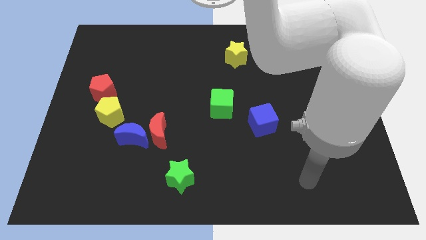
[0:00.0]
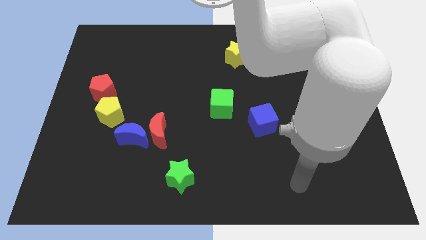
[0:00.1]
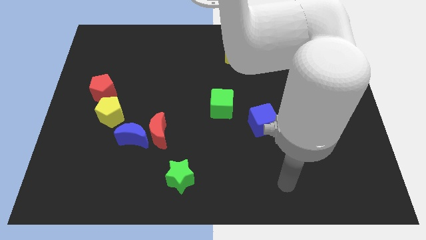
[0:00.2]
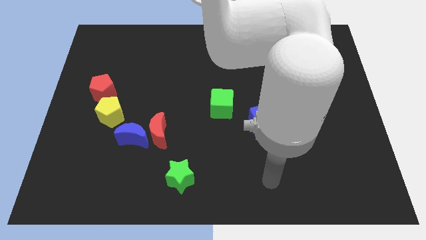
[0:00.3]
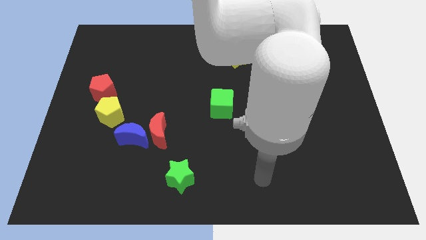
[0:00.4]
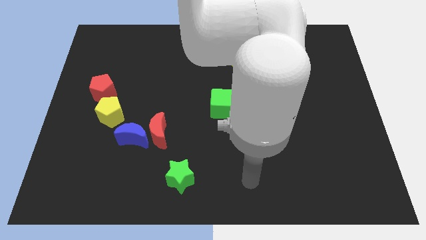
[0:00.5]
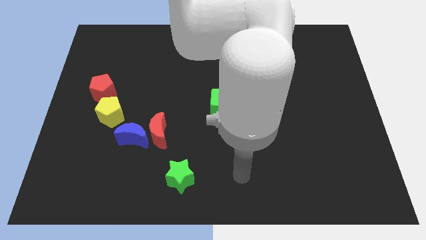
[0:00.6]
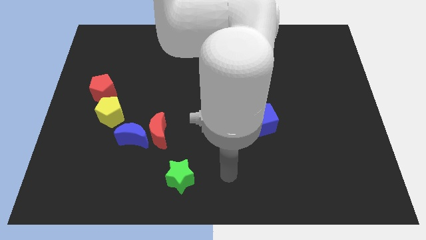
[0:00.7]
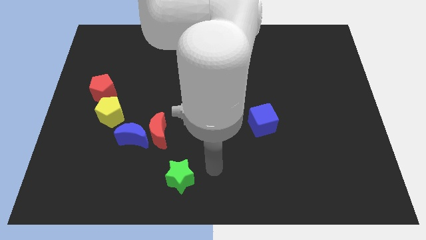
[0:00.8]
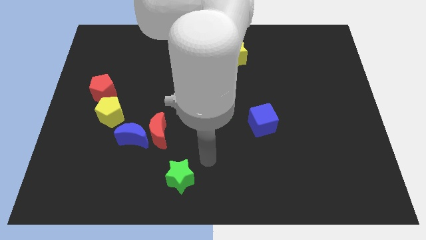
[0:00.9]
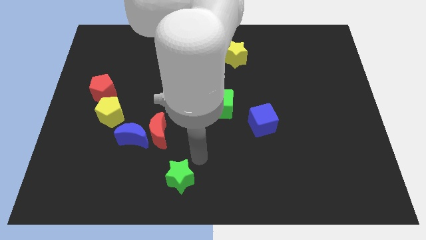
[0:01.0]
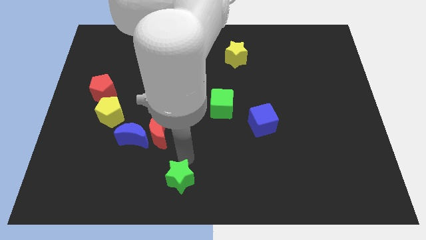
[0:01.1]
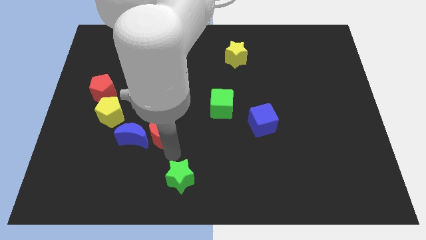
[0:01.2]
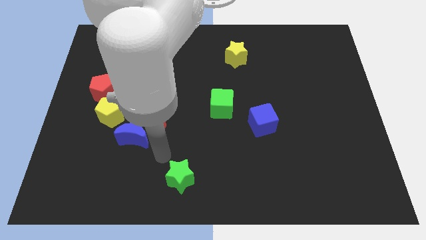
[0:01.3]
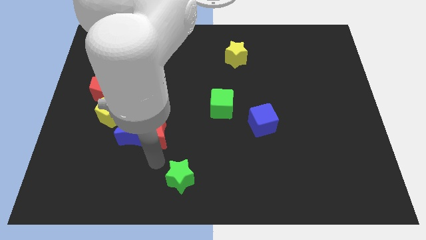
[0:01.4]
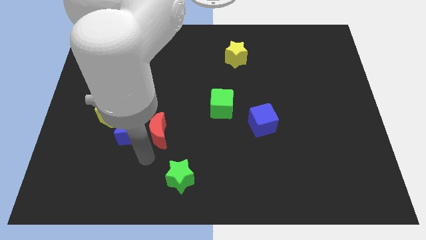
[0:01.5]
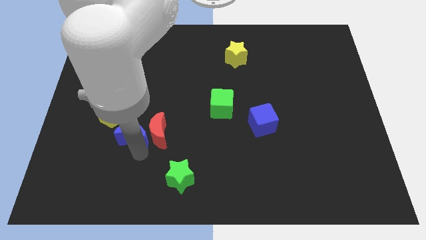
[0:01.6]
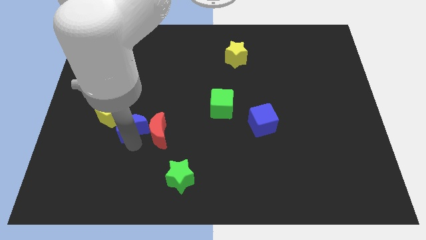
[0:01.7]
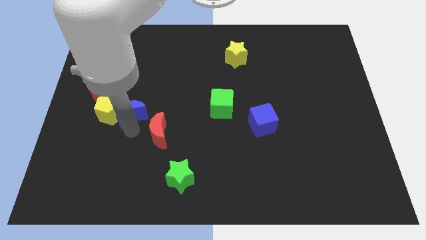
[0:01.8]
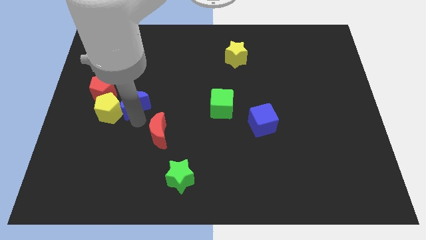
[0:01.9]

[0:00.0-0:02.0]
pull the red moon apart from the blue moon

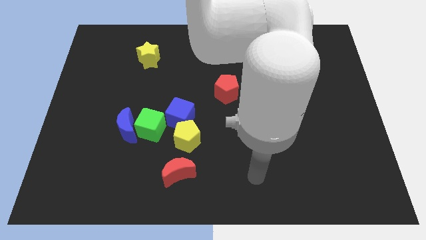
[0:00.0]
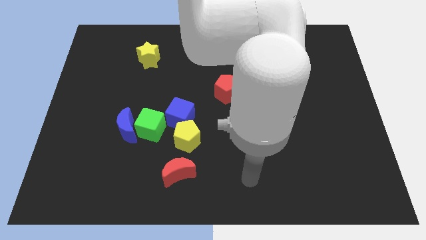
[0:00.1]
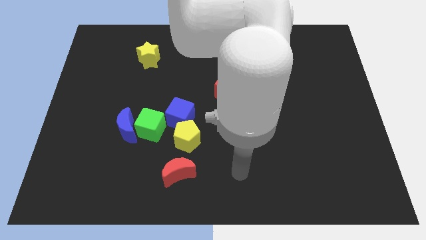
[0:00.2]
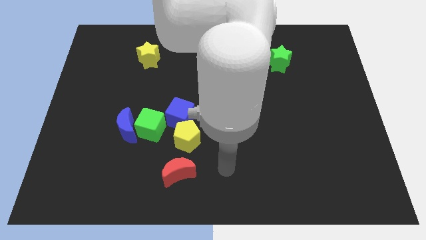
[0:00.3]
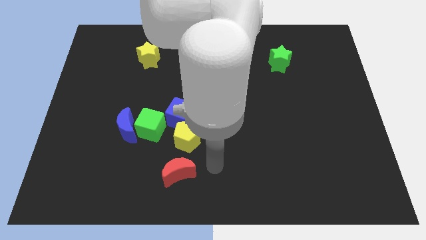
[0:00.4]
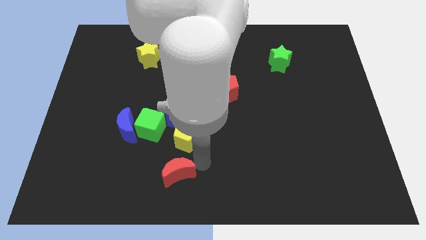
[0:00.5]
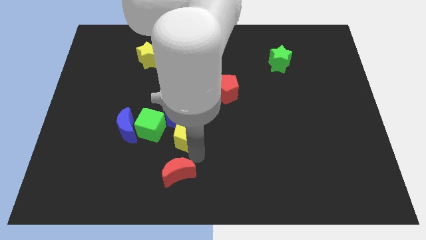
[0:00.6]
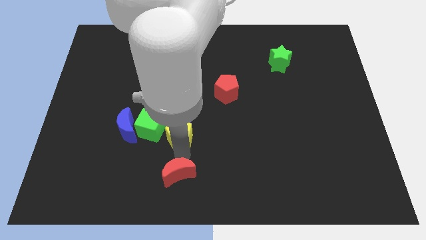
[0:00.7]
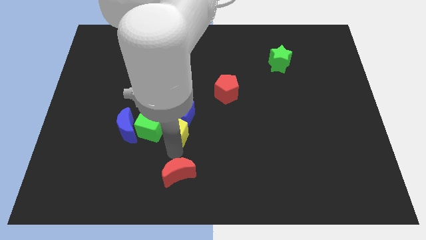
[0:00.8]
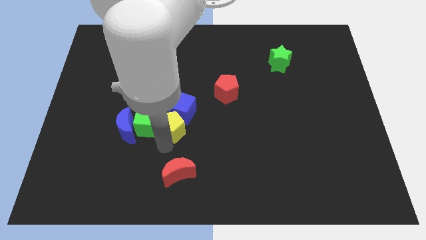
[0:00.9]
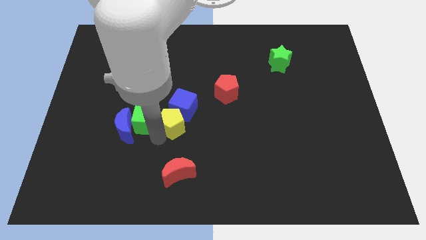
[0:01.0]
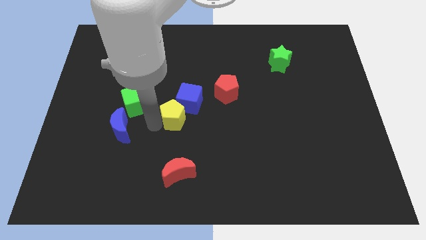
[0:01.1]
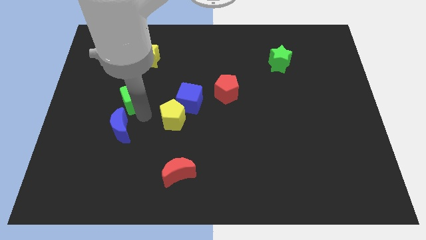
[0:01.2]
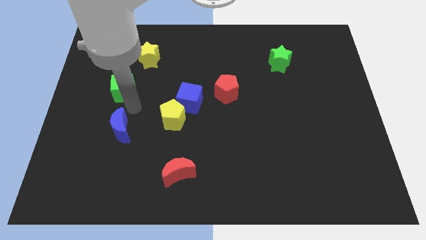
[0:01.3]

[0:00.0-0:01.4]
separate the blue moon from the green cube

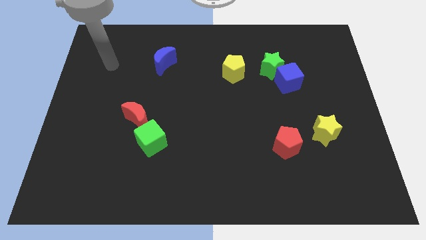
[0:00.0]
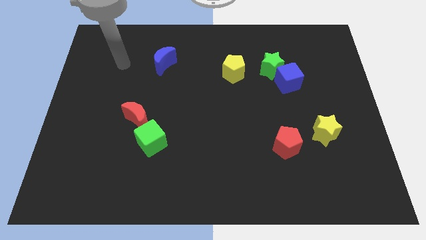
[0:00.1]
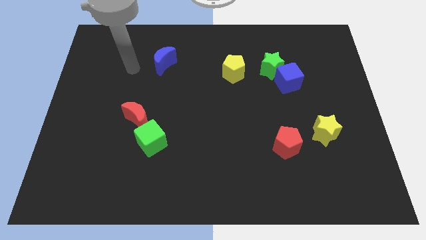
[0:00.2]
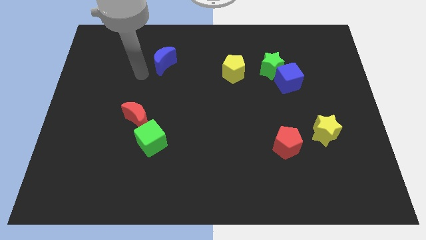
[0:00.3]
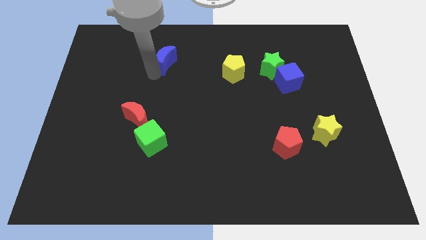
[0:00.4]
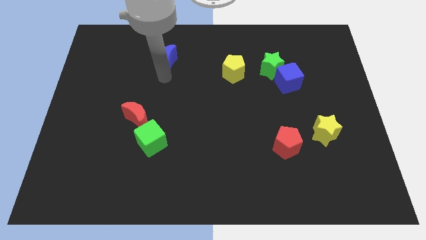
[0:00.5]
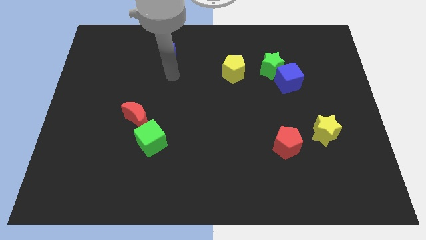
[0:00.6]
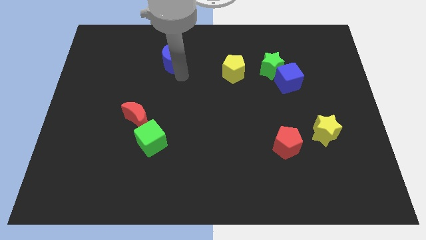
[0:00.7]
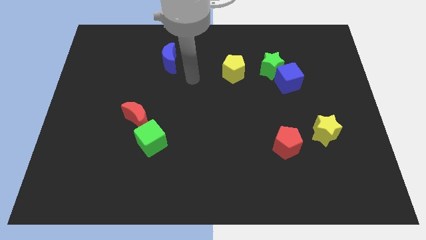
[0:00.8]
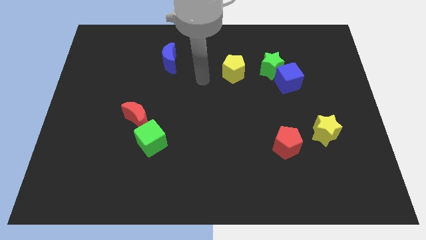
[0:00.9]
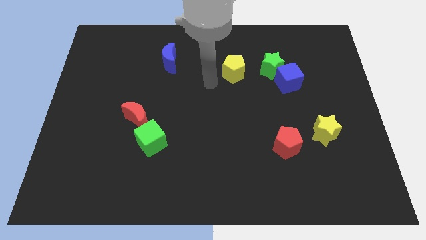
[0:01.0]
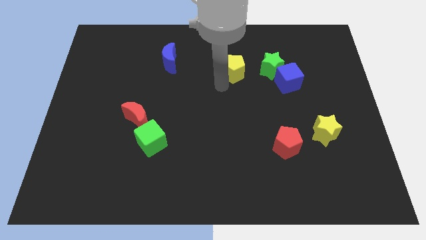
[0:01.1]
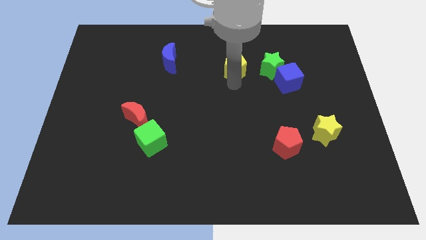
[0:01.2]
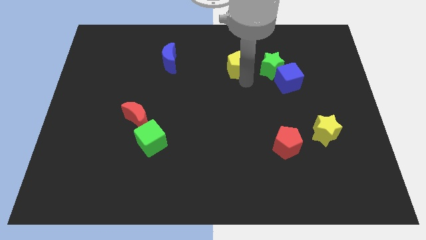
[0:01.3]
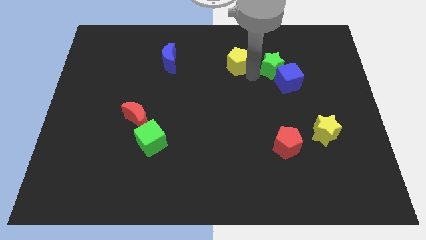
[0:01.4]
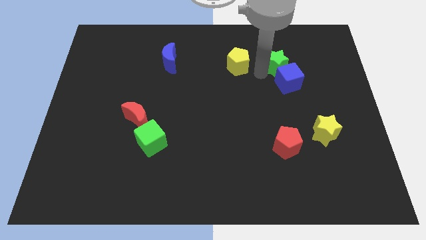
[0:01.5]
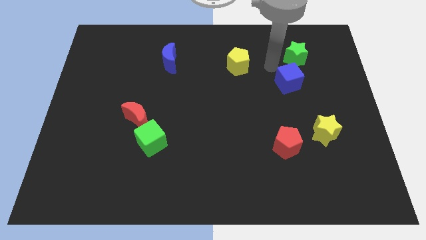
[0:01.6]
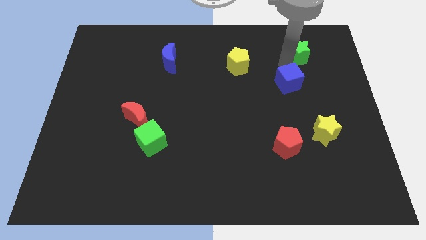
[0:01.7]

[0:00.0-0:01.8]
separate the blue cube from the green star

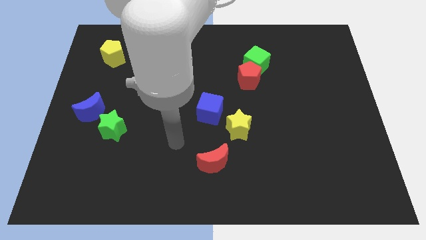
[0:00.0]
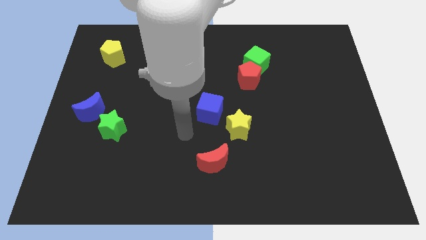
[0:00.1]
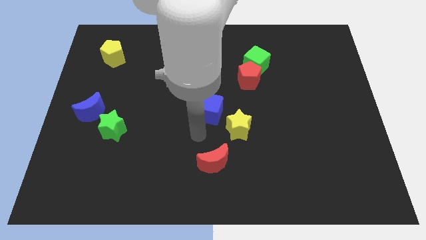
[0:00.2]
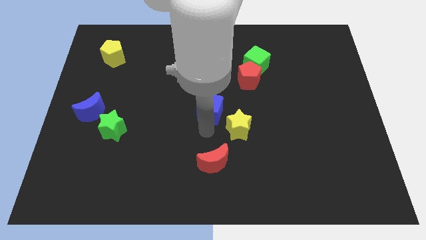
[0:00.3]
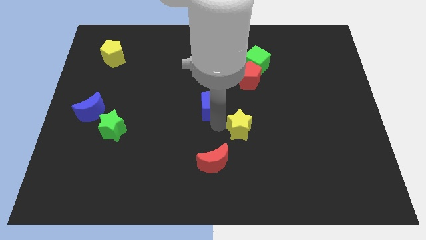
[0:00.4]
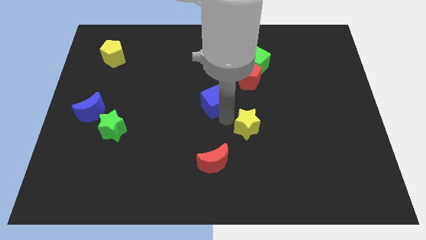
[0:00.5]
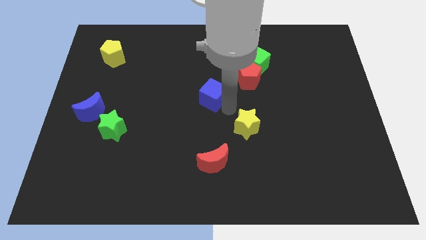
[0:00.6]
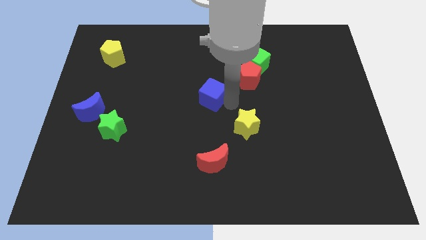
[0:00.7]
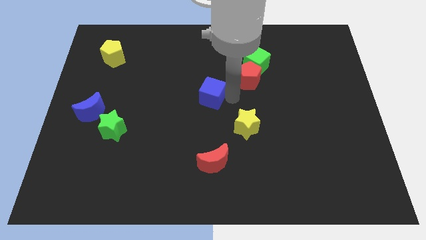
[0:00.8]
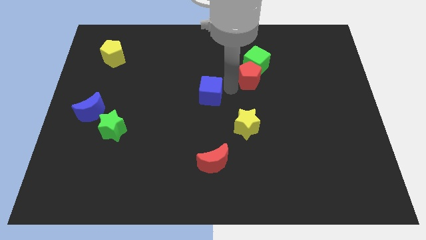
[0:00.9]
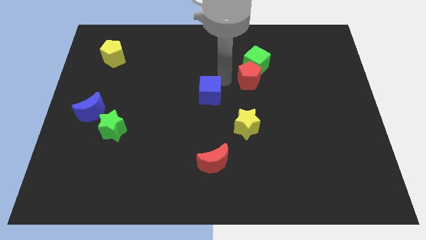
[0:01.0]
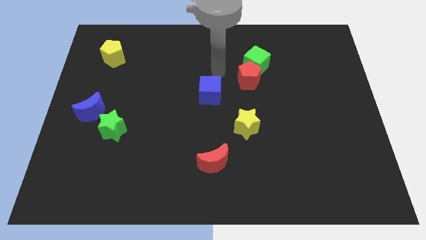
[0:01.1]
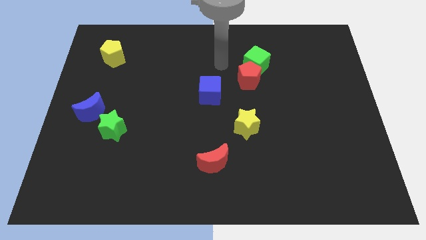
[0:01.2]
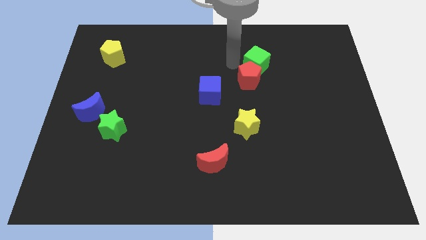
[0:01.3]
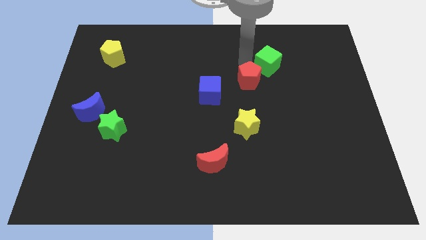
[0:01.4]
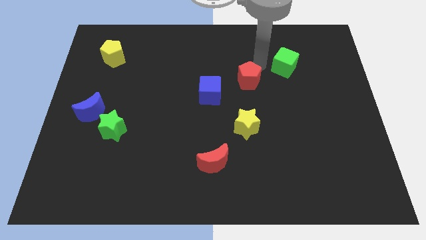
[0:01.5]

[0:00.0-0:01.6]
separate the red pentagon from the green cube

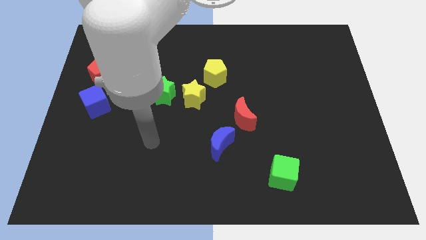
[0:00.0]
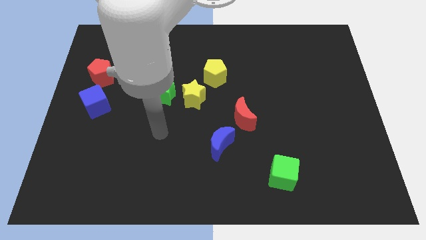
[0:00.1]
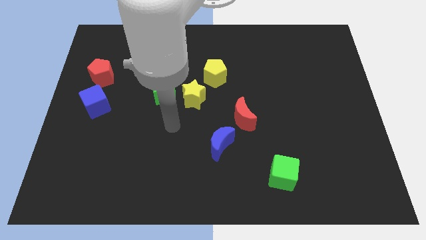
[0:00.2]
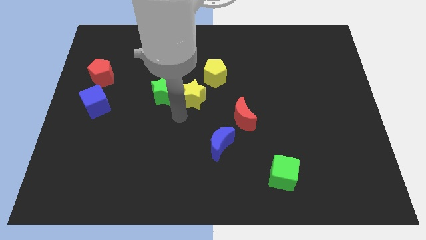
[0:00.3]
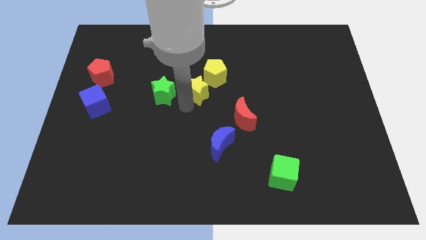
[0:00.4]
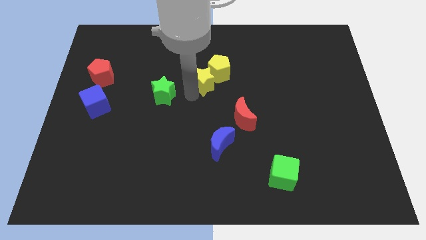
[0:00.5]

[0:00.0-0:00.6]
move the green star away from the yellow star

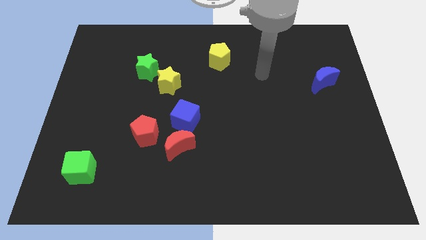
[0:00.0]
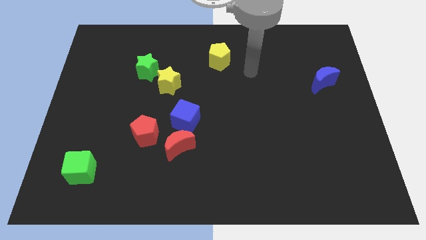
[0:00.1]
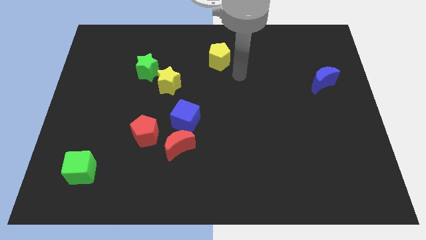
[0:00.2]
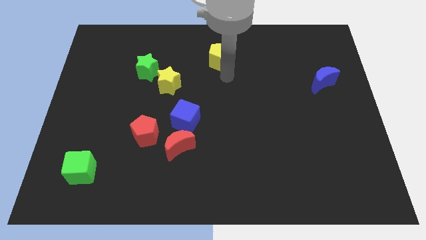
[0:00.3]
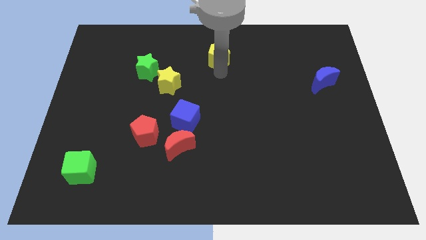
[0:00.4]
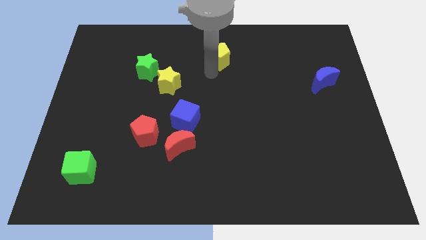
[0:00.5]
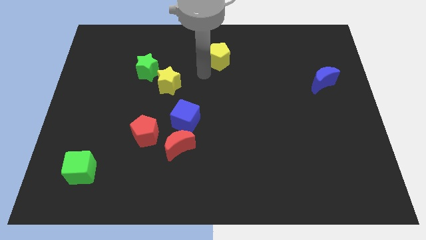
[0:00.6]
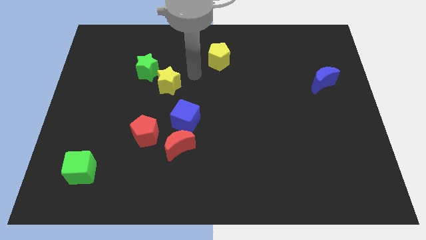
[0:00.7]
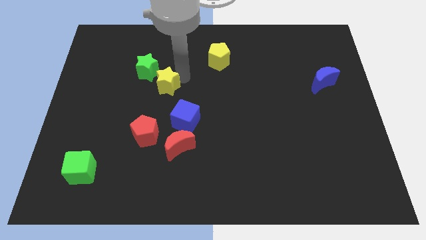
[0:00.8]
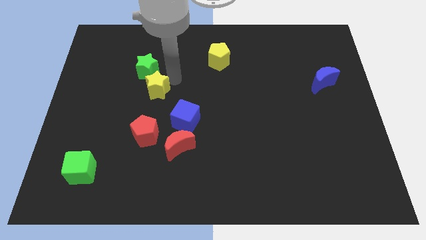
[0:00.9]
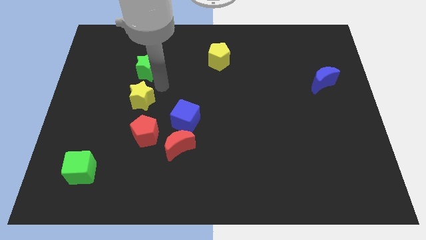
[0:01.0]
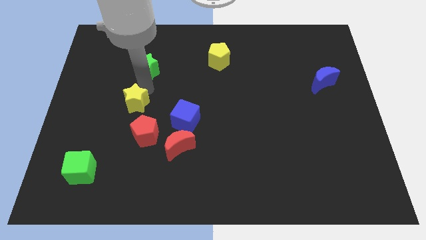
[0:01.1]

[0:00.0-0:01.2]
separate the green star from the yellow star

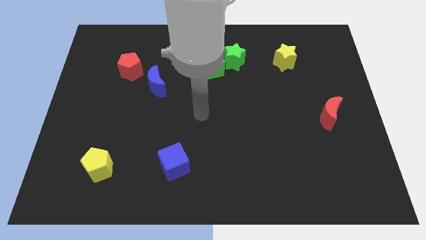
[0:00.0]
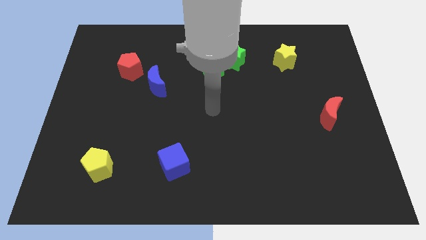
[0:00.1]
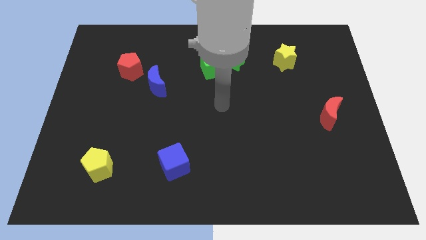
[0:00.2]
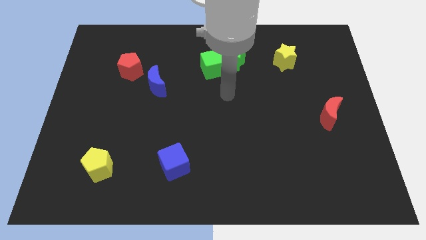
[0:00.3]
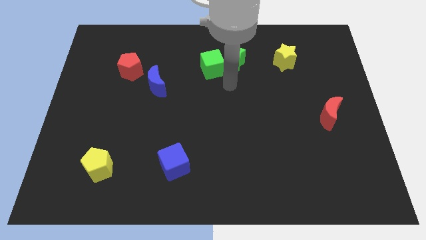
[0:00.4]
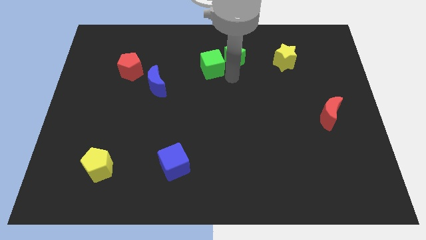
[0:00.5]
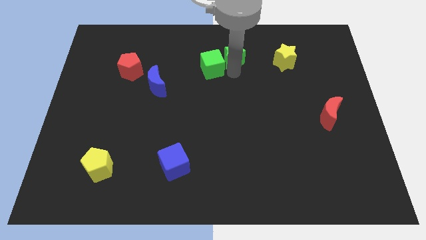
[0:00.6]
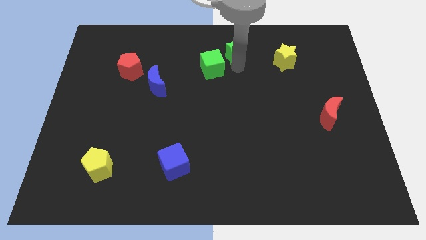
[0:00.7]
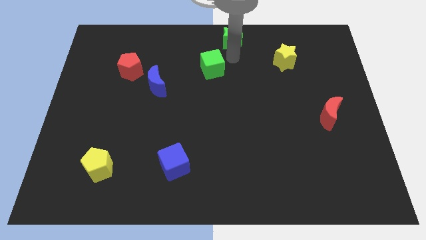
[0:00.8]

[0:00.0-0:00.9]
separate the green cube from the green star
